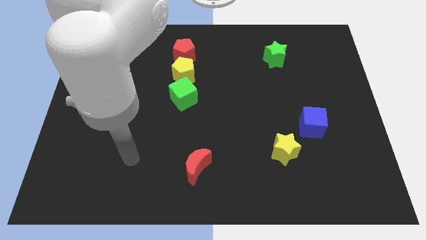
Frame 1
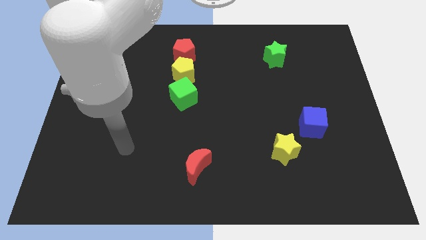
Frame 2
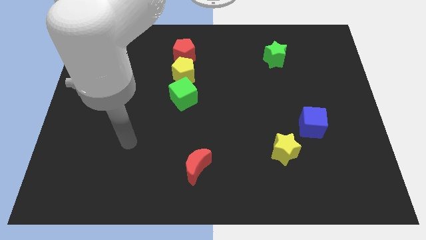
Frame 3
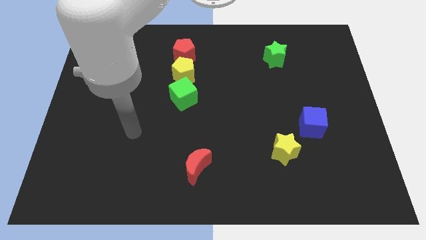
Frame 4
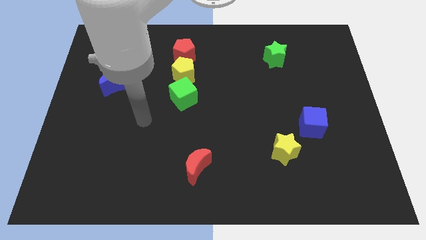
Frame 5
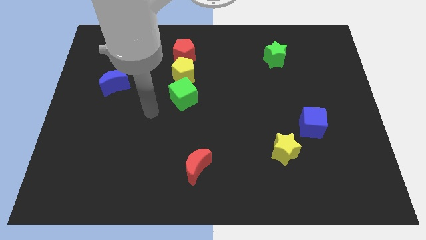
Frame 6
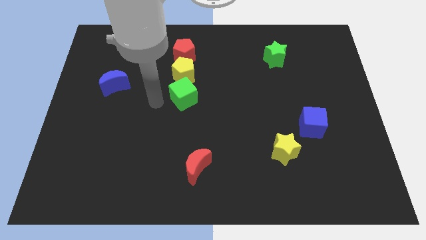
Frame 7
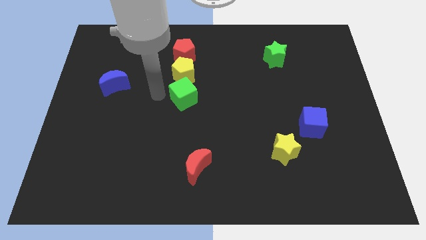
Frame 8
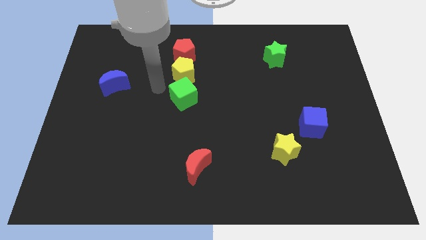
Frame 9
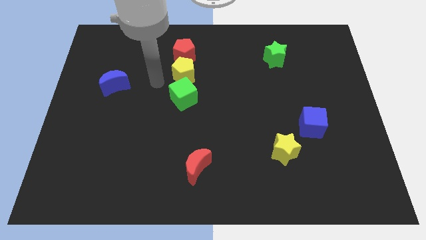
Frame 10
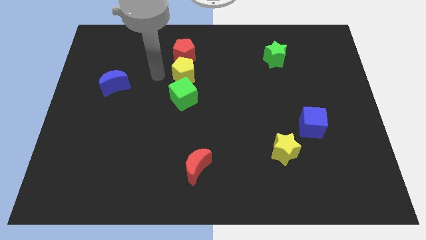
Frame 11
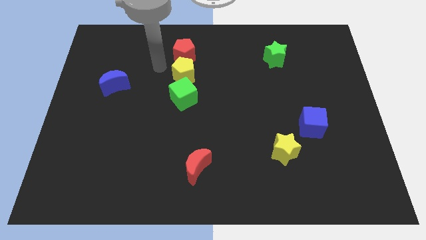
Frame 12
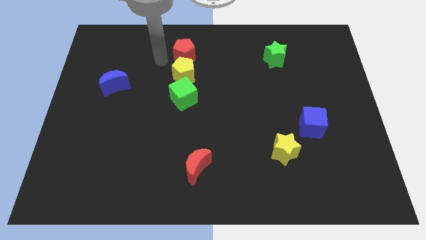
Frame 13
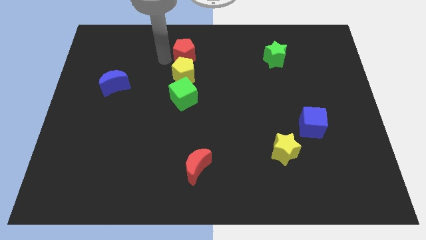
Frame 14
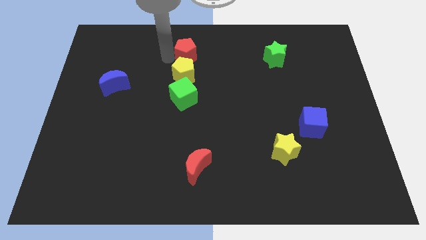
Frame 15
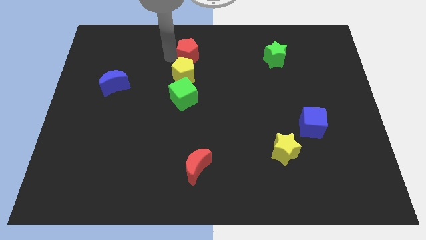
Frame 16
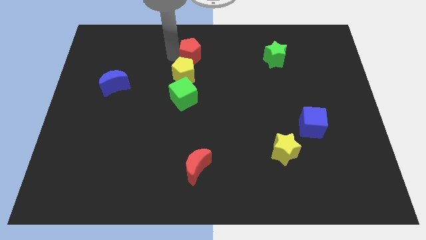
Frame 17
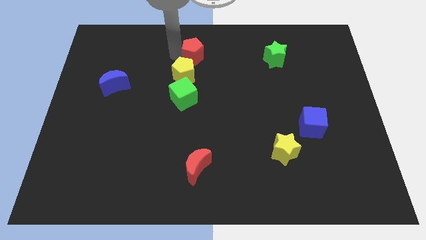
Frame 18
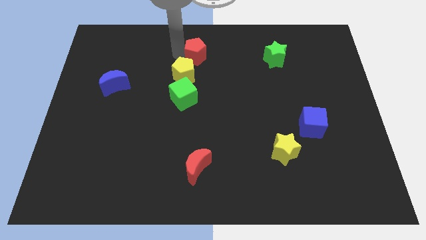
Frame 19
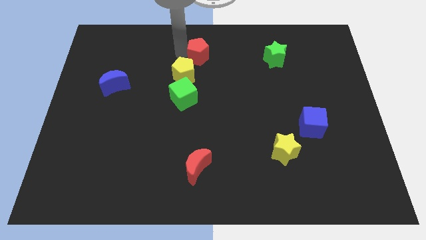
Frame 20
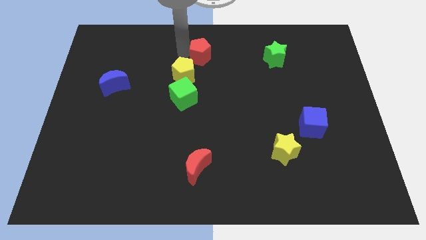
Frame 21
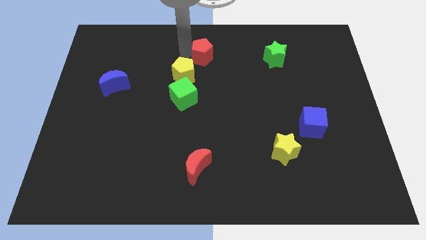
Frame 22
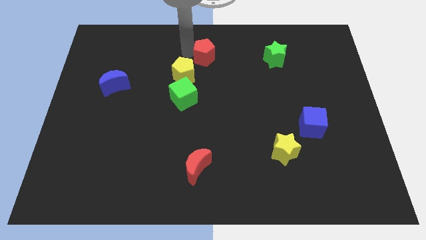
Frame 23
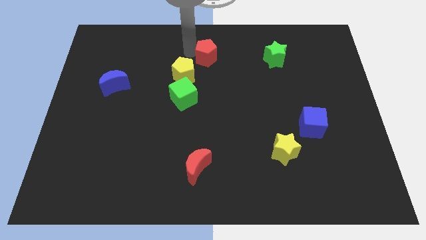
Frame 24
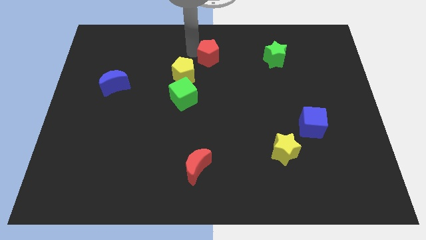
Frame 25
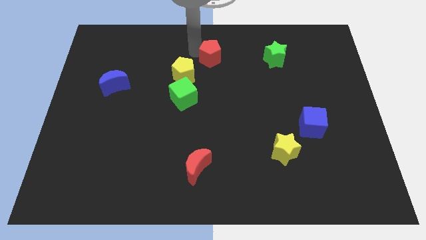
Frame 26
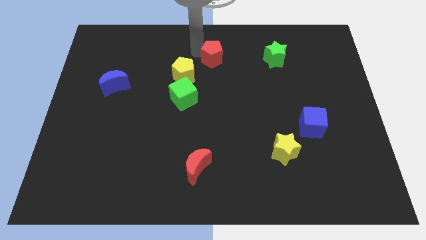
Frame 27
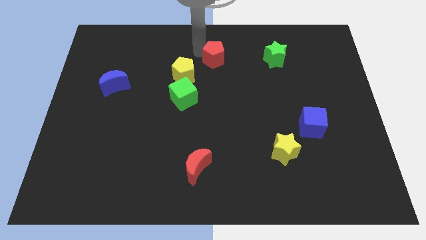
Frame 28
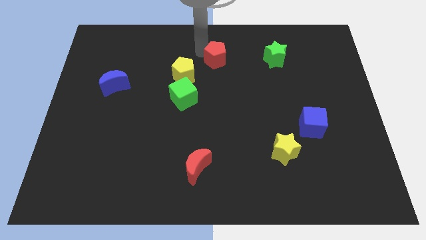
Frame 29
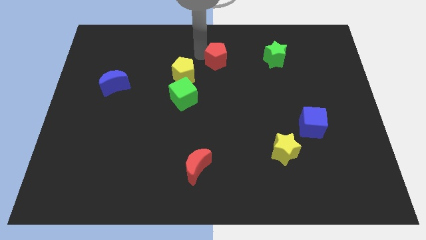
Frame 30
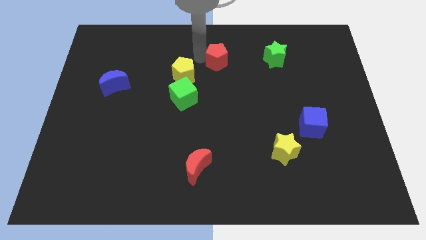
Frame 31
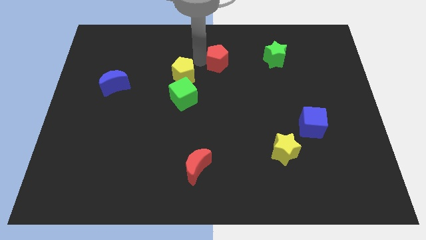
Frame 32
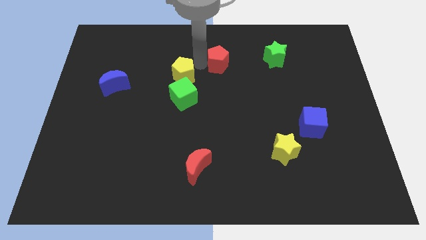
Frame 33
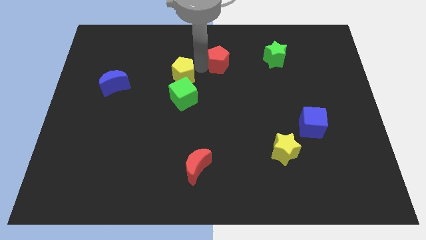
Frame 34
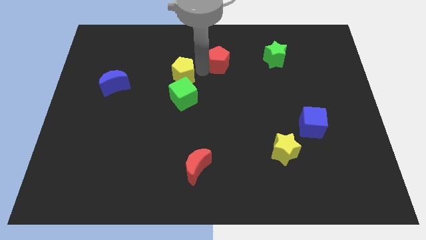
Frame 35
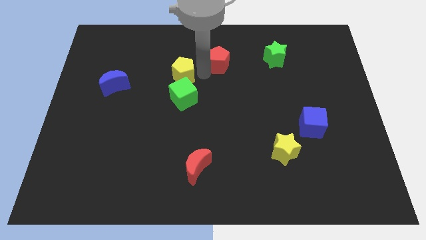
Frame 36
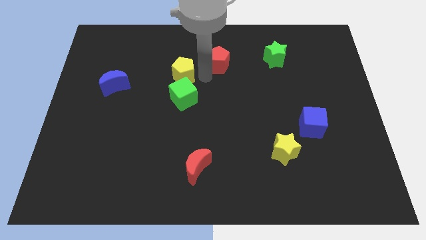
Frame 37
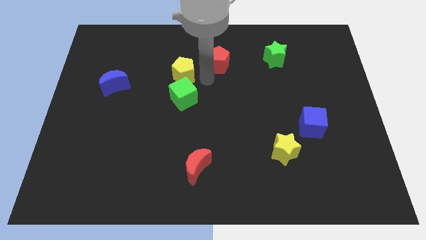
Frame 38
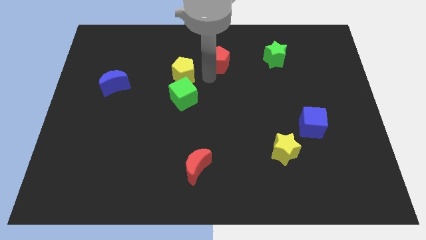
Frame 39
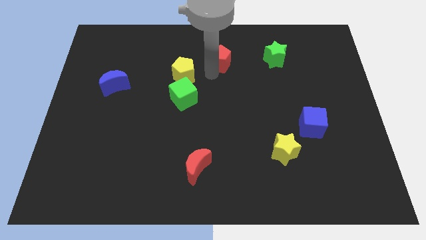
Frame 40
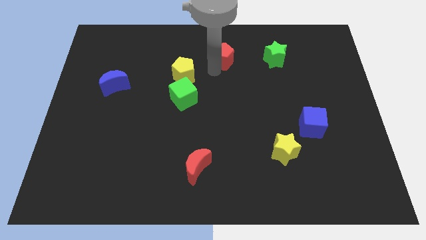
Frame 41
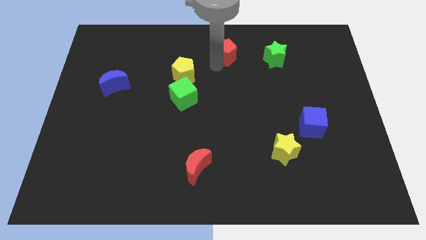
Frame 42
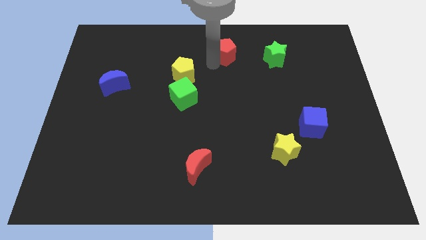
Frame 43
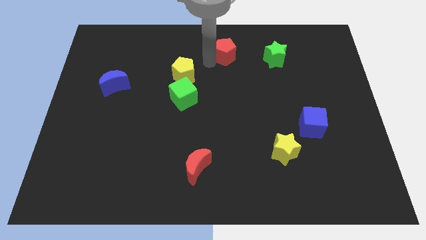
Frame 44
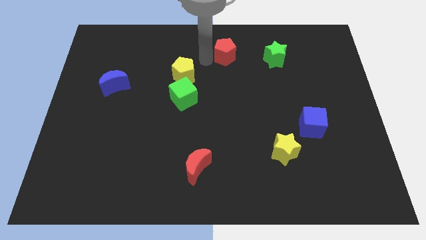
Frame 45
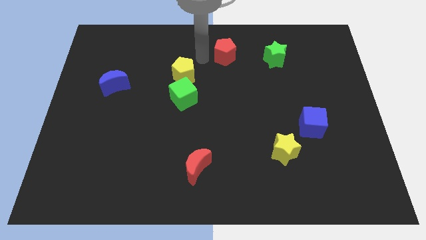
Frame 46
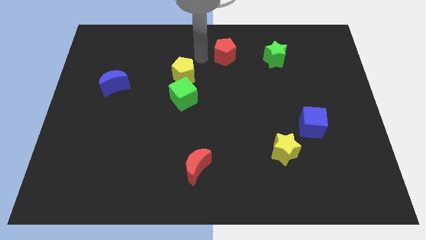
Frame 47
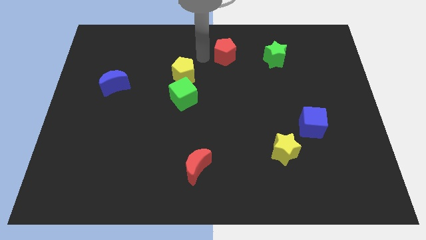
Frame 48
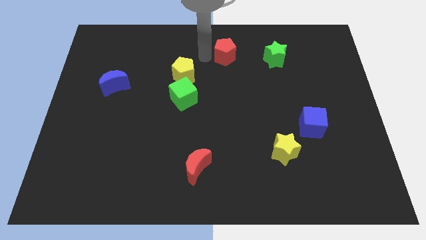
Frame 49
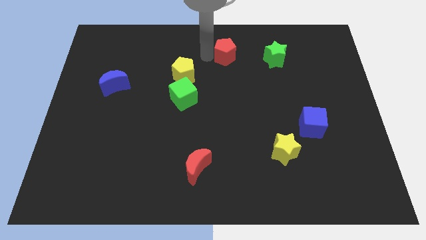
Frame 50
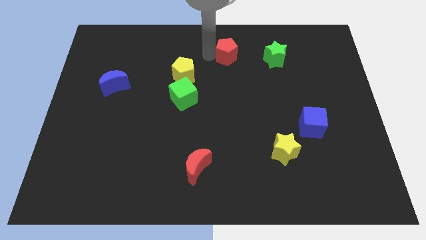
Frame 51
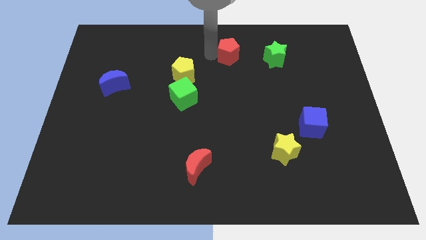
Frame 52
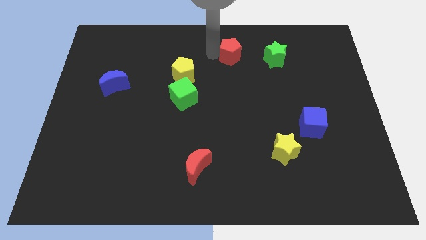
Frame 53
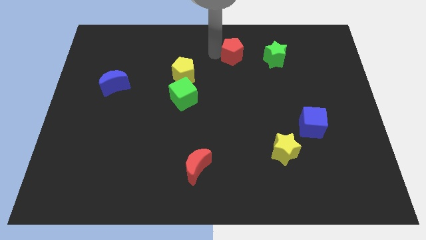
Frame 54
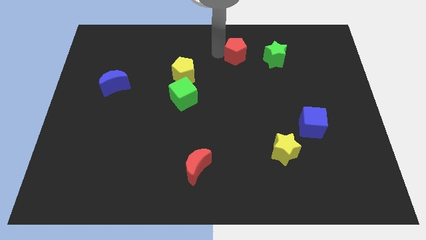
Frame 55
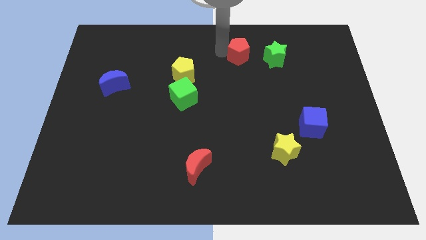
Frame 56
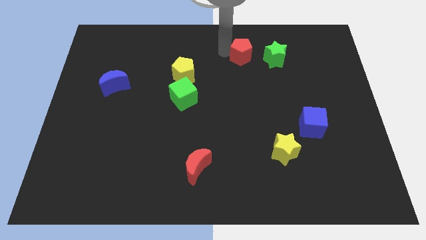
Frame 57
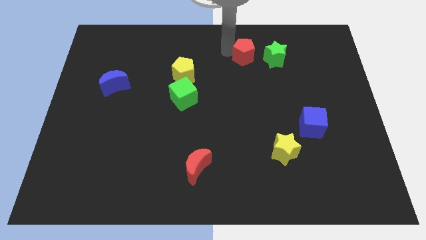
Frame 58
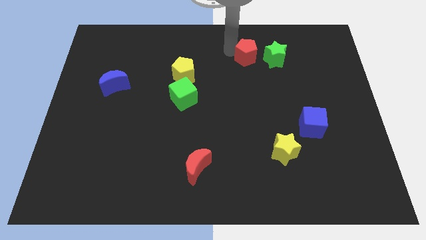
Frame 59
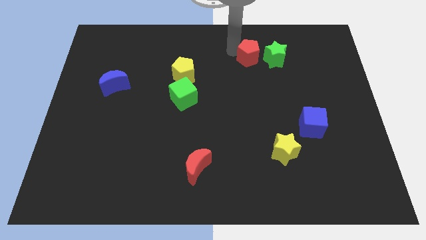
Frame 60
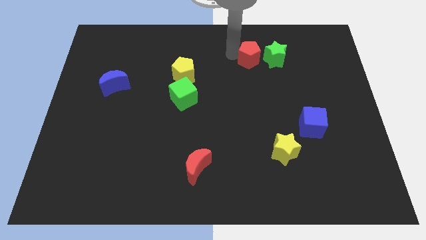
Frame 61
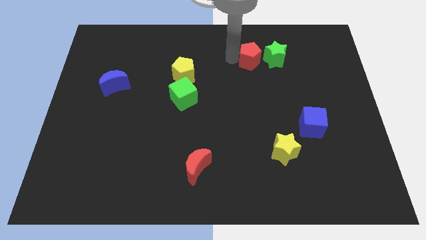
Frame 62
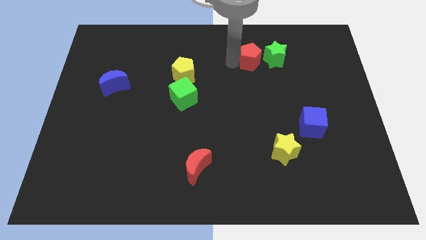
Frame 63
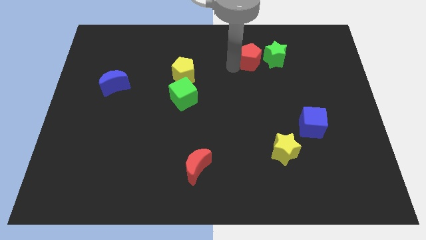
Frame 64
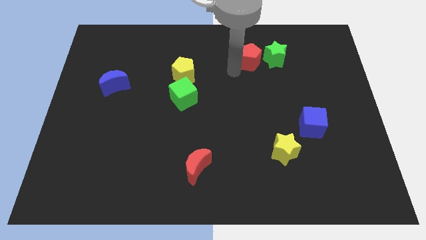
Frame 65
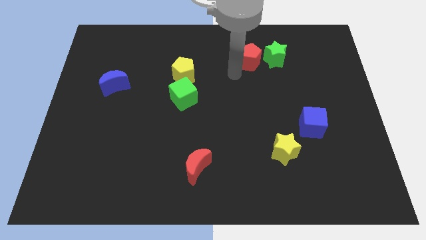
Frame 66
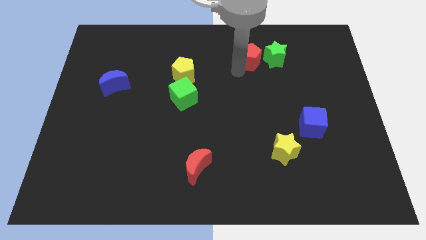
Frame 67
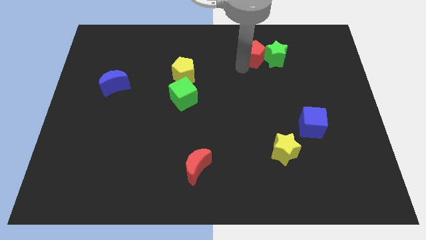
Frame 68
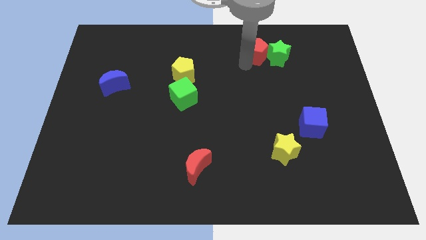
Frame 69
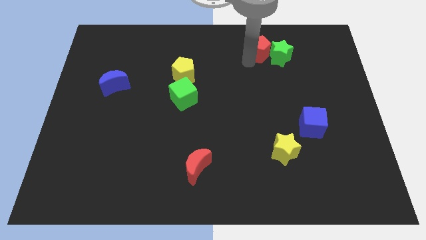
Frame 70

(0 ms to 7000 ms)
move the red pentagon to the right

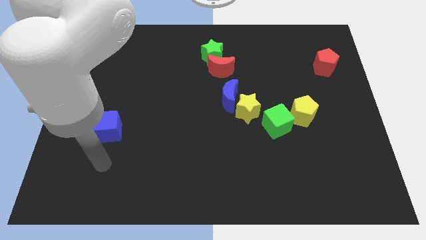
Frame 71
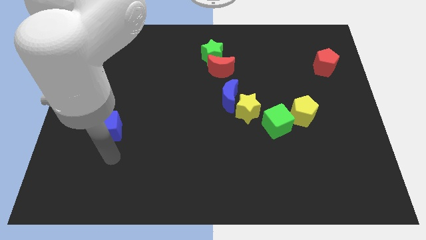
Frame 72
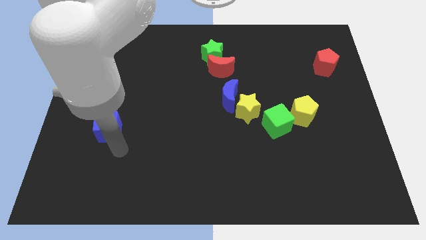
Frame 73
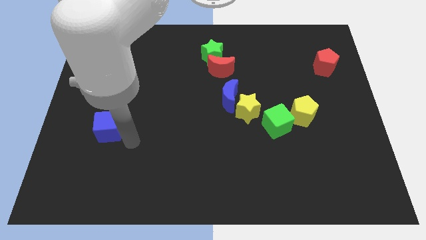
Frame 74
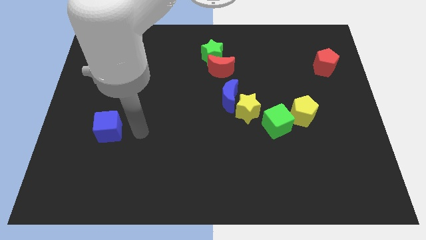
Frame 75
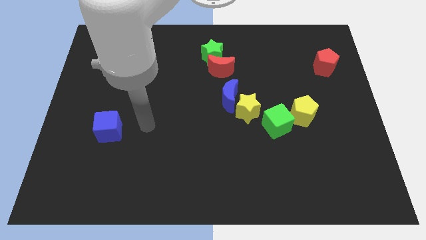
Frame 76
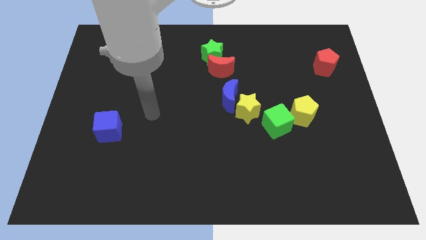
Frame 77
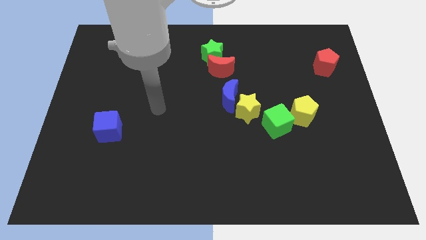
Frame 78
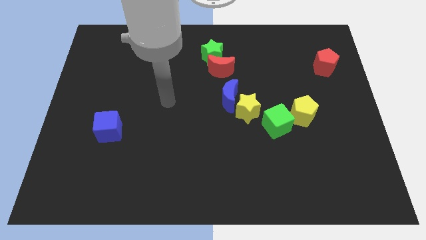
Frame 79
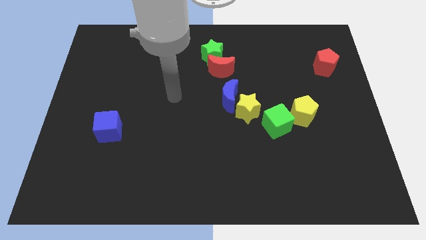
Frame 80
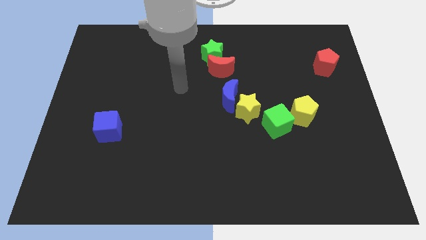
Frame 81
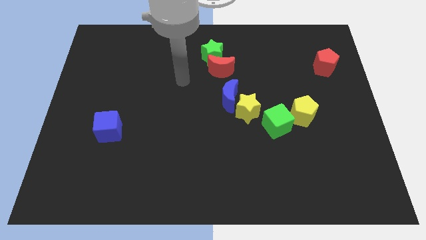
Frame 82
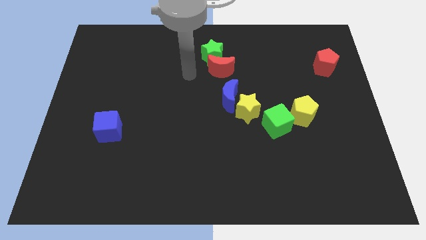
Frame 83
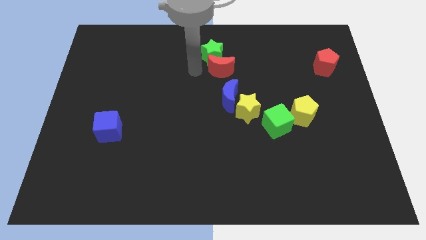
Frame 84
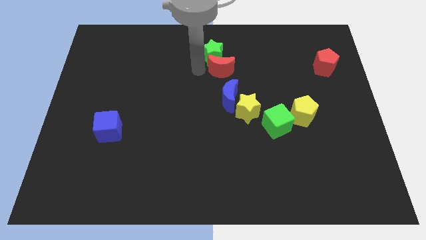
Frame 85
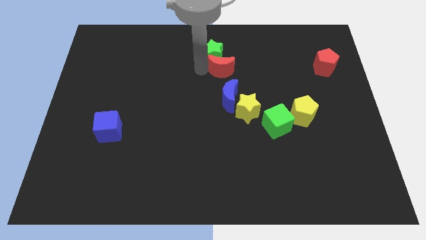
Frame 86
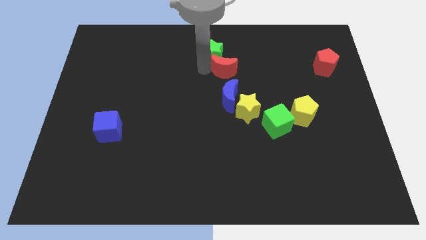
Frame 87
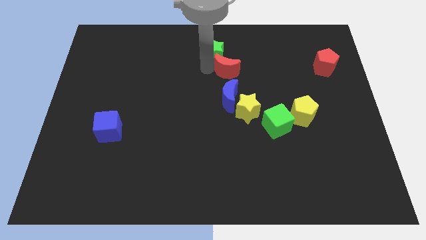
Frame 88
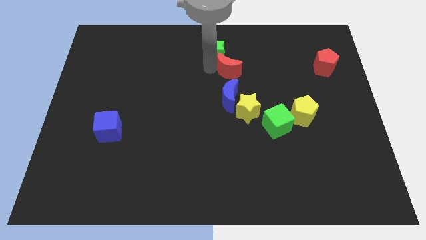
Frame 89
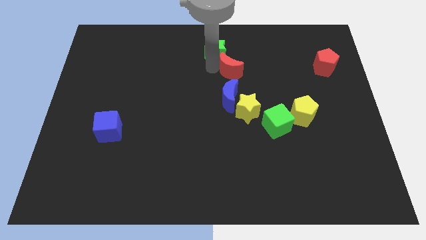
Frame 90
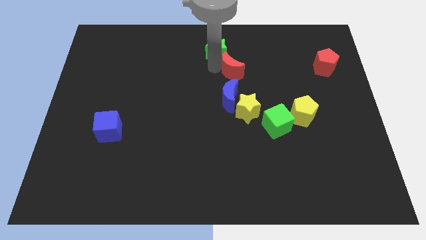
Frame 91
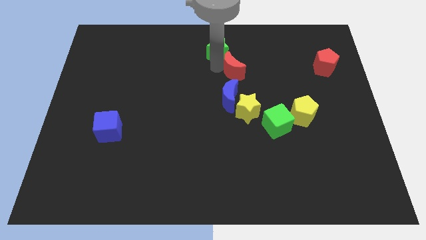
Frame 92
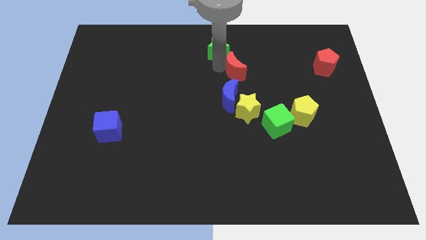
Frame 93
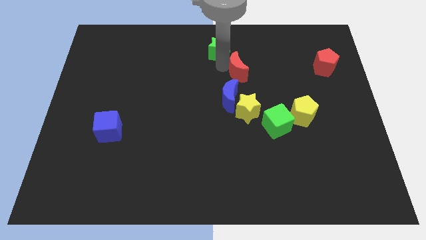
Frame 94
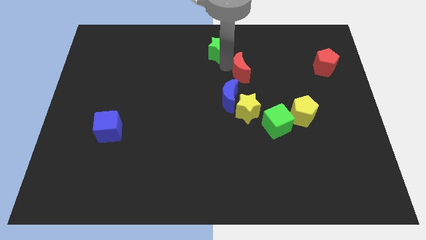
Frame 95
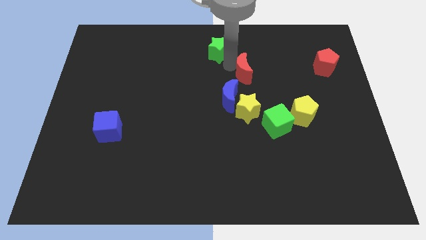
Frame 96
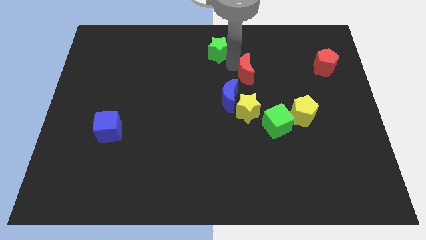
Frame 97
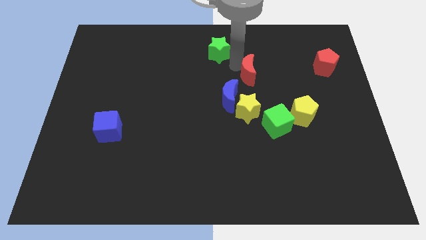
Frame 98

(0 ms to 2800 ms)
move the red moon right a little
